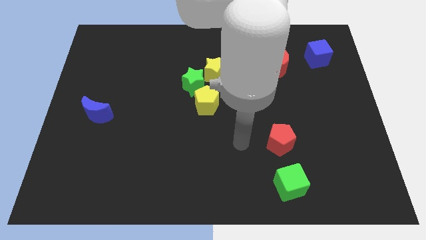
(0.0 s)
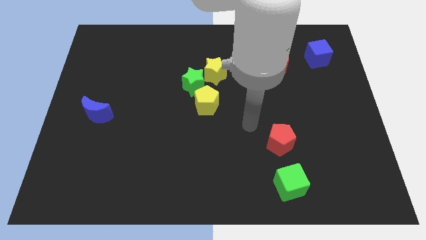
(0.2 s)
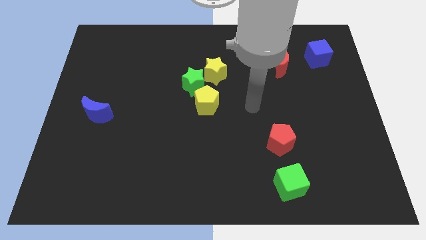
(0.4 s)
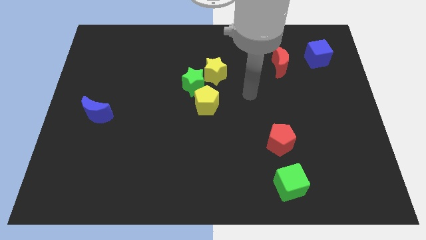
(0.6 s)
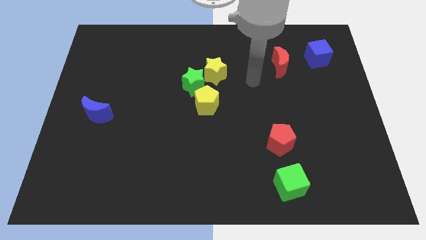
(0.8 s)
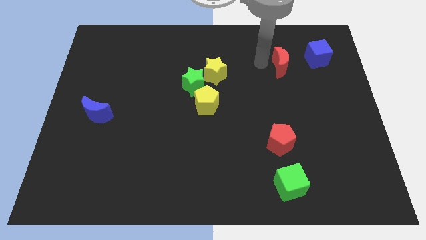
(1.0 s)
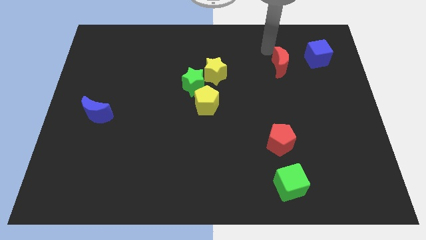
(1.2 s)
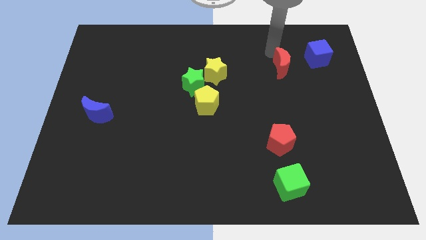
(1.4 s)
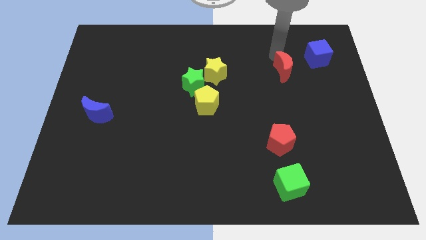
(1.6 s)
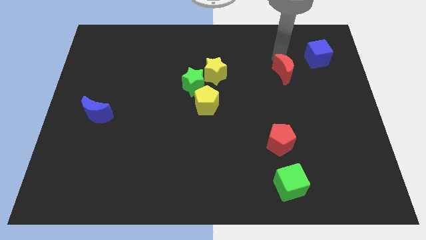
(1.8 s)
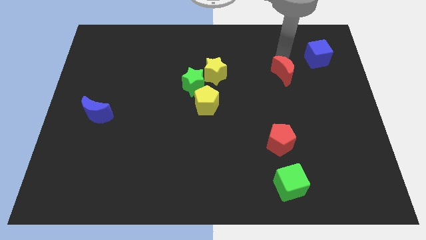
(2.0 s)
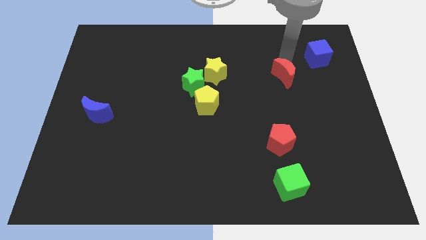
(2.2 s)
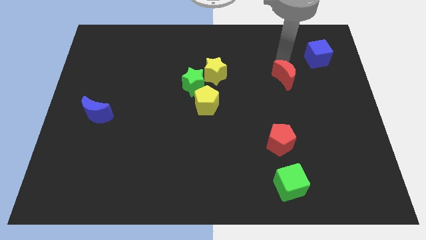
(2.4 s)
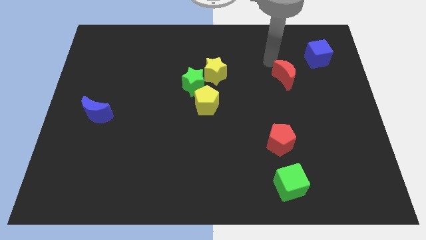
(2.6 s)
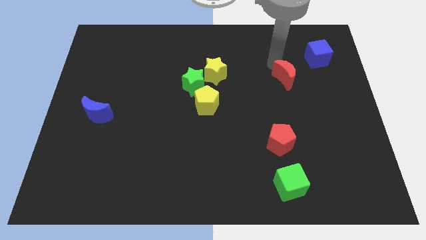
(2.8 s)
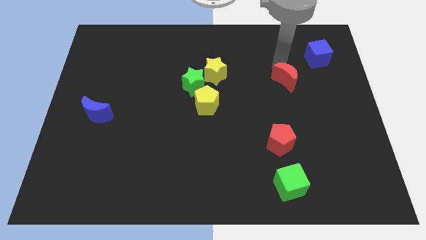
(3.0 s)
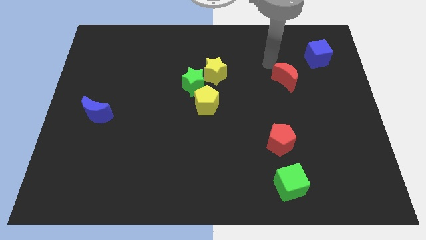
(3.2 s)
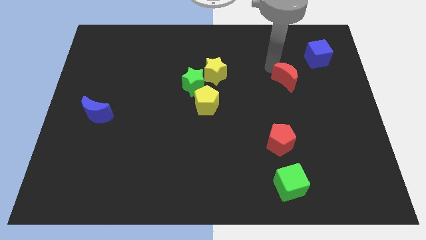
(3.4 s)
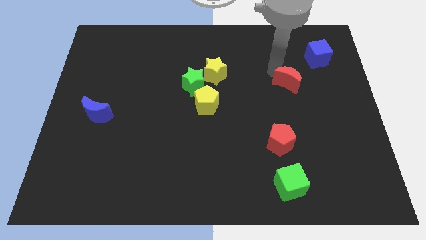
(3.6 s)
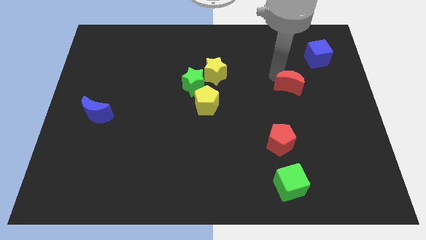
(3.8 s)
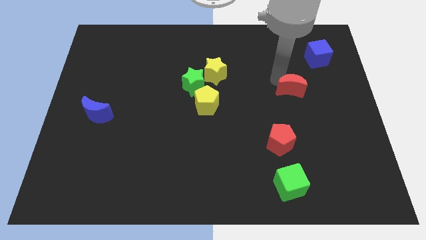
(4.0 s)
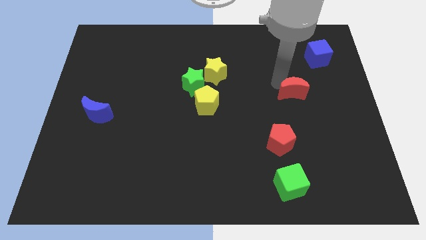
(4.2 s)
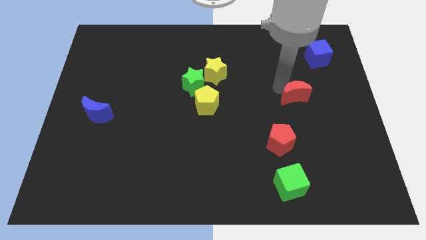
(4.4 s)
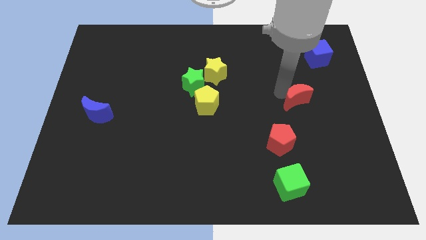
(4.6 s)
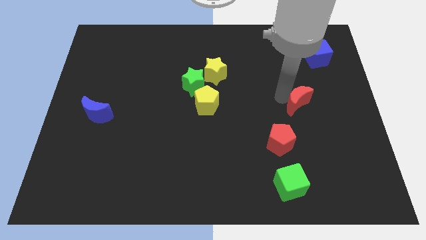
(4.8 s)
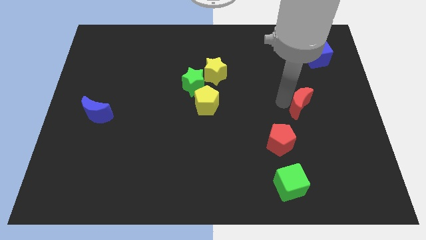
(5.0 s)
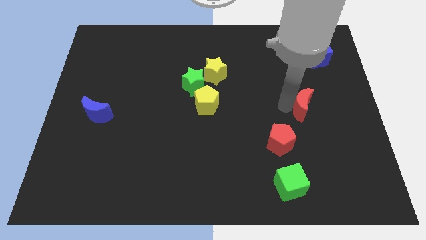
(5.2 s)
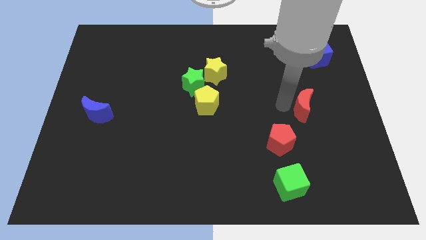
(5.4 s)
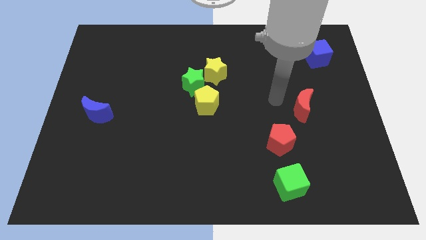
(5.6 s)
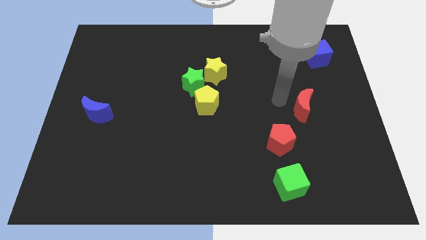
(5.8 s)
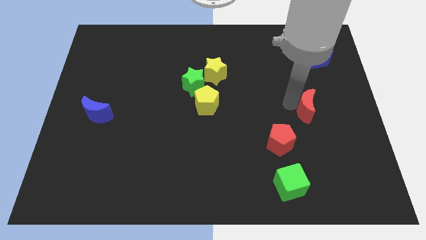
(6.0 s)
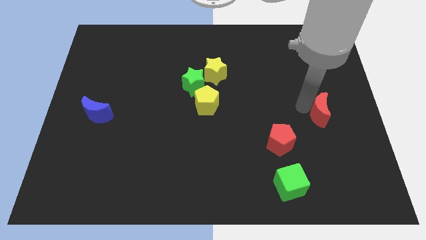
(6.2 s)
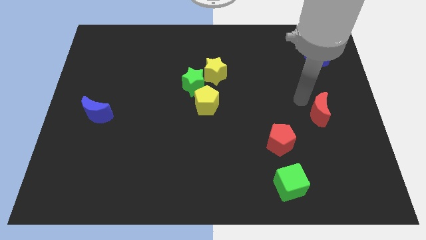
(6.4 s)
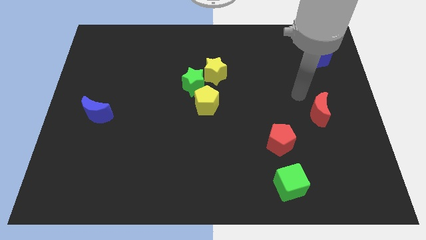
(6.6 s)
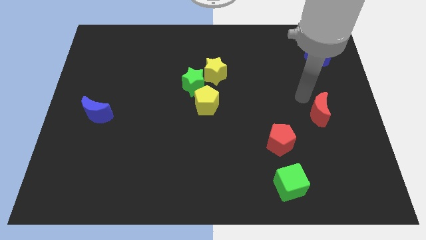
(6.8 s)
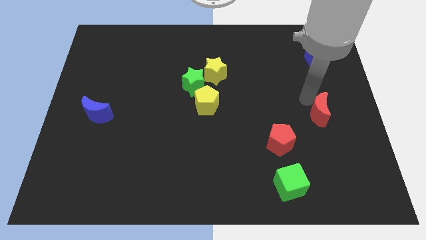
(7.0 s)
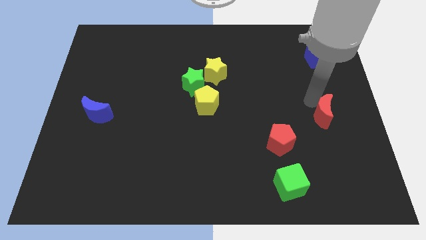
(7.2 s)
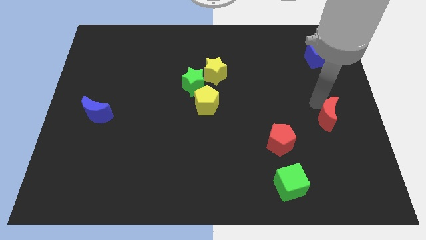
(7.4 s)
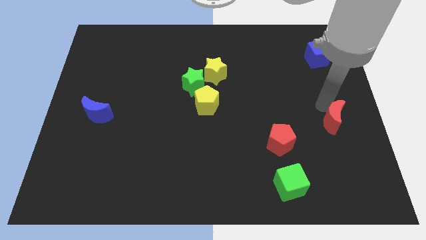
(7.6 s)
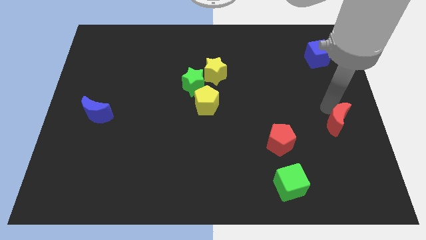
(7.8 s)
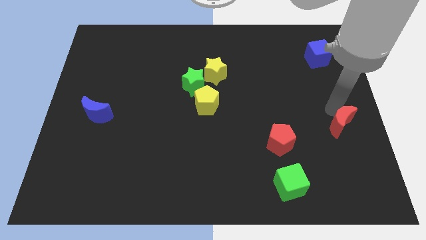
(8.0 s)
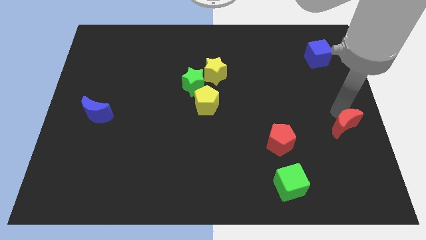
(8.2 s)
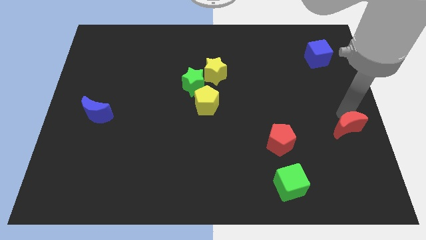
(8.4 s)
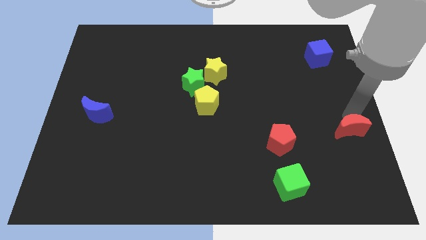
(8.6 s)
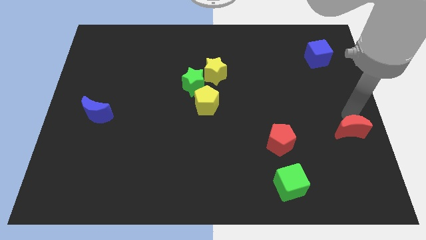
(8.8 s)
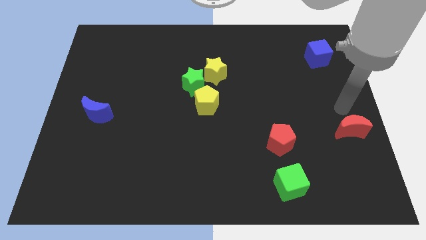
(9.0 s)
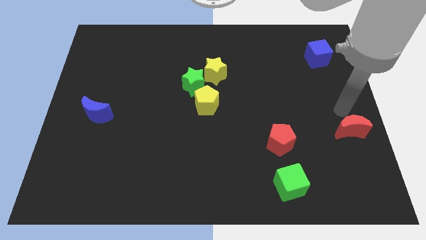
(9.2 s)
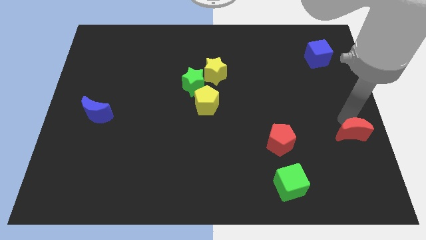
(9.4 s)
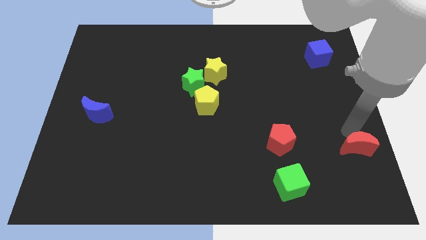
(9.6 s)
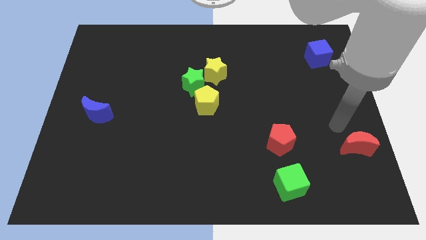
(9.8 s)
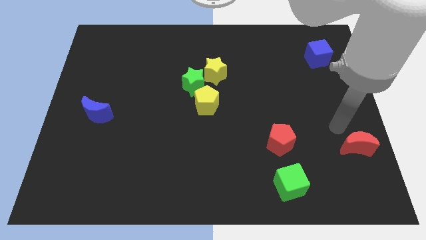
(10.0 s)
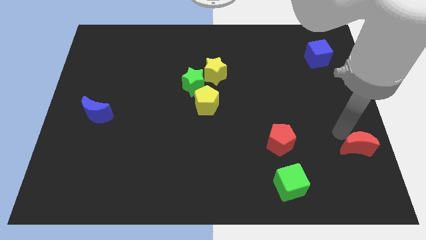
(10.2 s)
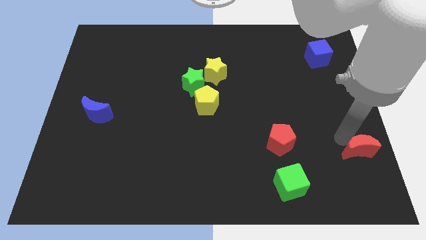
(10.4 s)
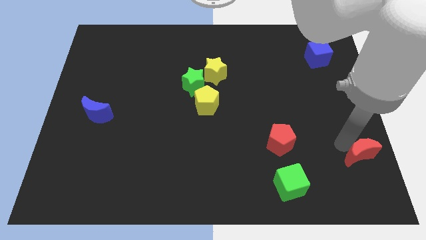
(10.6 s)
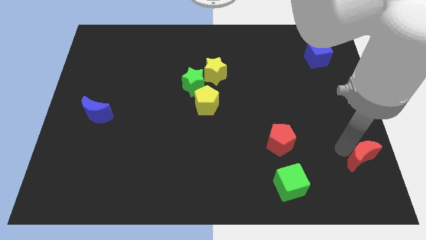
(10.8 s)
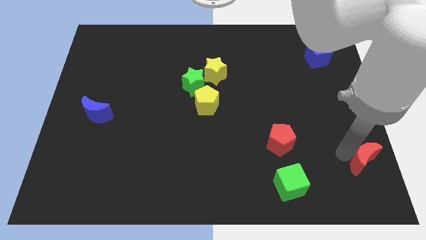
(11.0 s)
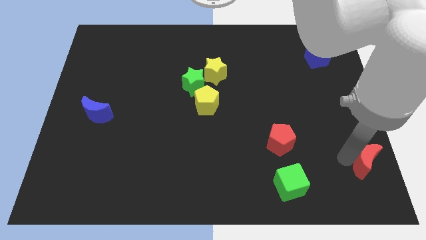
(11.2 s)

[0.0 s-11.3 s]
slide the red moon to the lower right corner

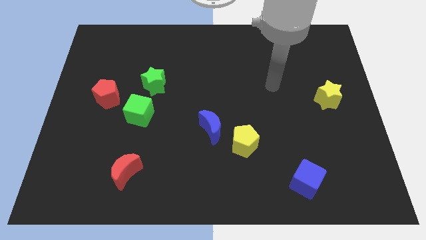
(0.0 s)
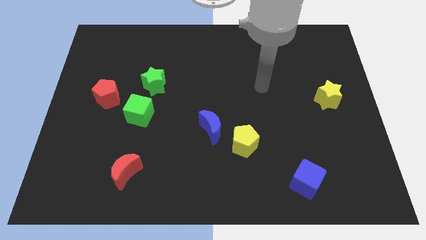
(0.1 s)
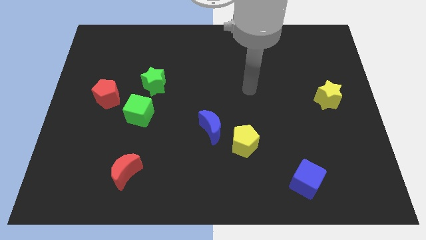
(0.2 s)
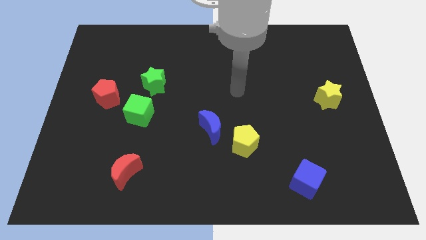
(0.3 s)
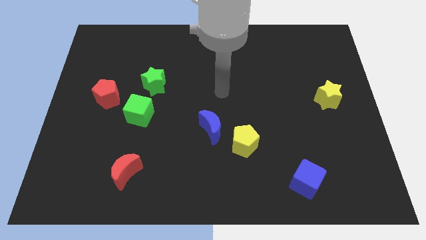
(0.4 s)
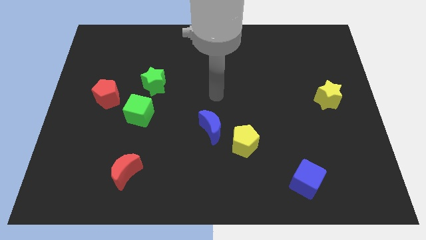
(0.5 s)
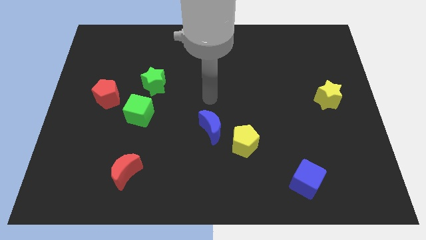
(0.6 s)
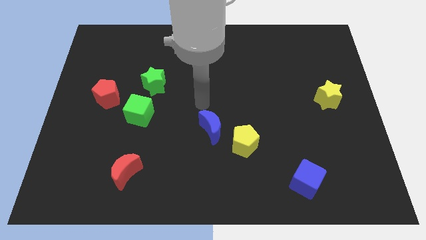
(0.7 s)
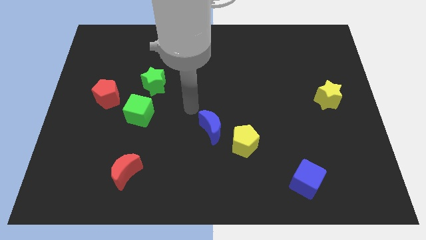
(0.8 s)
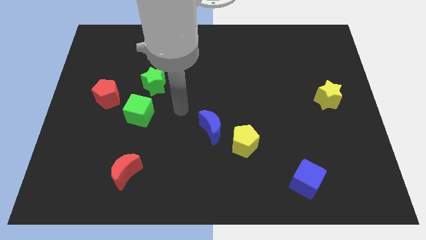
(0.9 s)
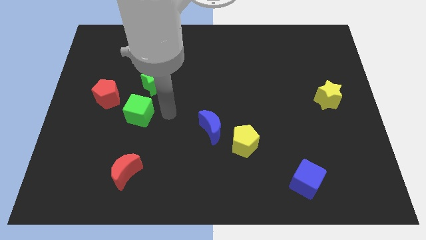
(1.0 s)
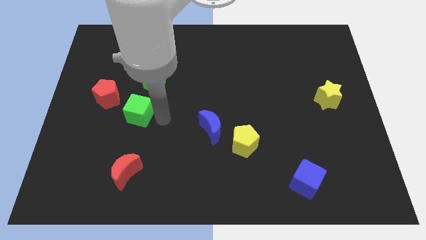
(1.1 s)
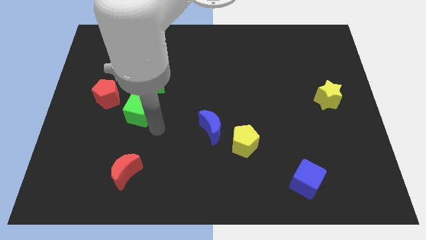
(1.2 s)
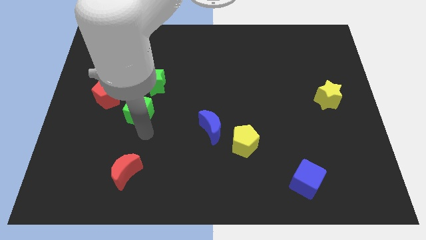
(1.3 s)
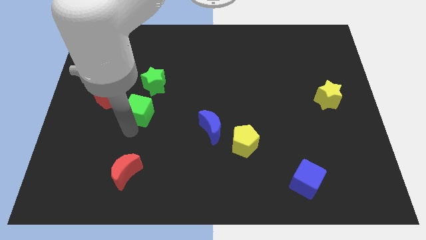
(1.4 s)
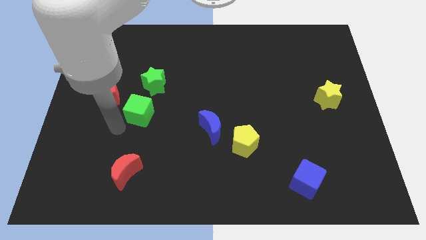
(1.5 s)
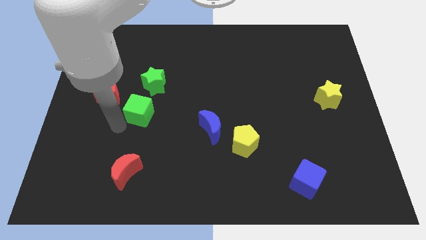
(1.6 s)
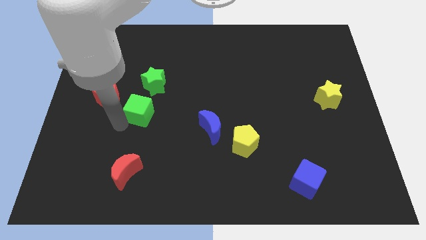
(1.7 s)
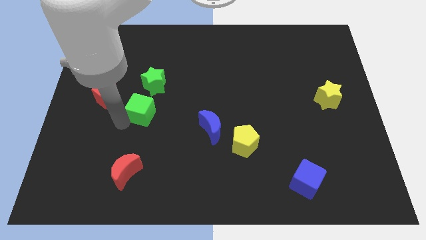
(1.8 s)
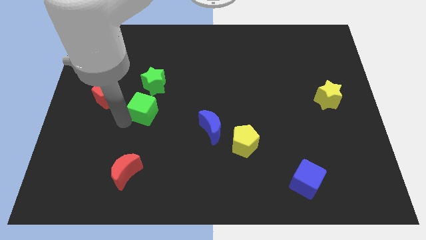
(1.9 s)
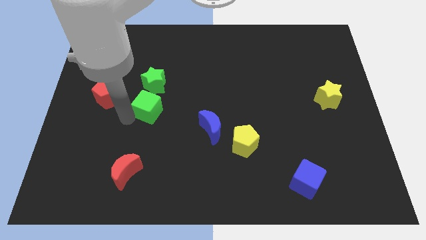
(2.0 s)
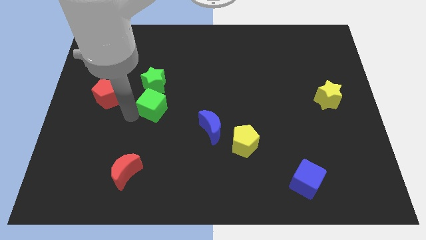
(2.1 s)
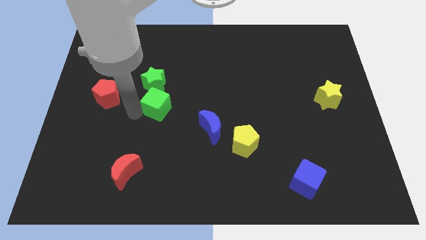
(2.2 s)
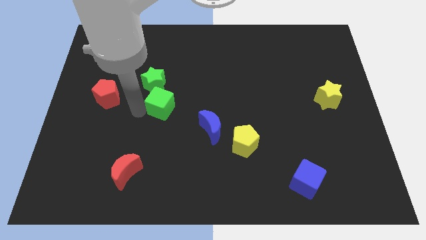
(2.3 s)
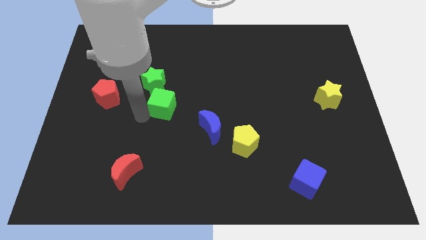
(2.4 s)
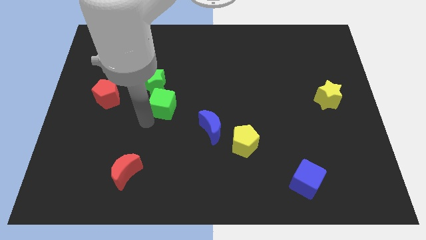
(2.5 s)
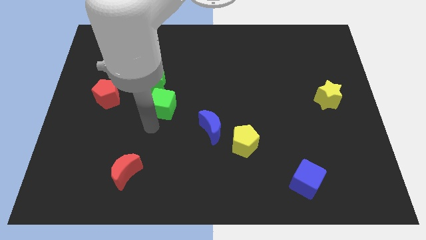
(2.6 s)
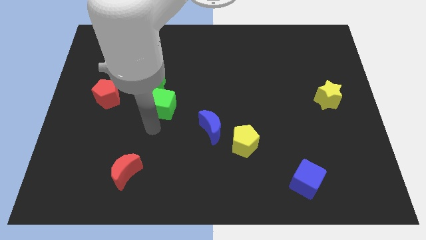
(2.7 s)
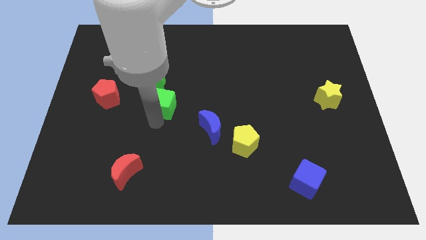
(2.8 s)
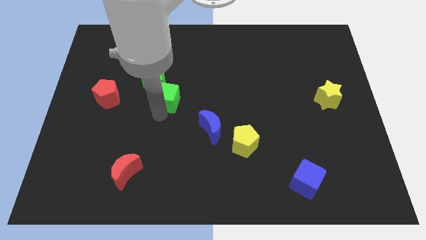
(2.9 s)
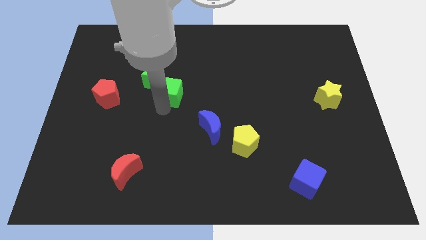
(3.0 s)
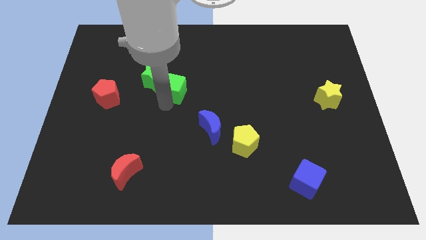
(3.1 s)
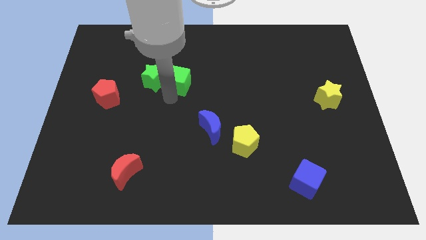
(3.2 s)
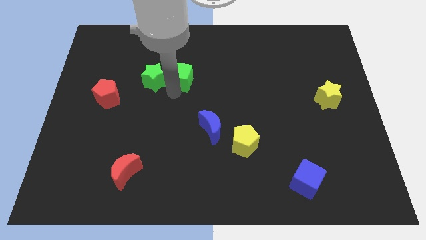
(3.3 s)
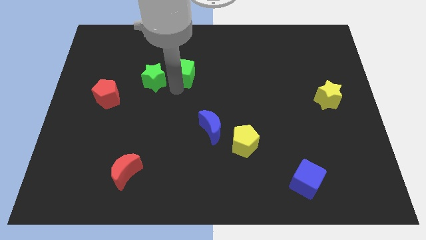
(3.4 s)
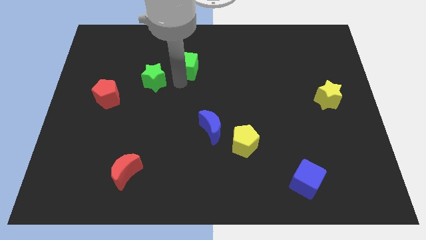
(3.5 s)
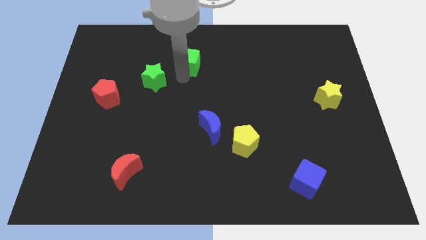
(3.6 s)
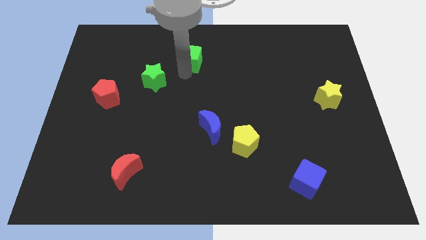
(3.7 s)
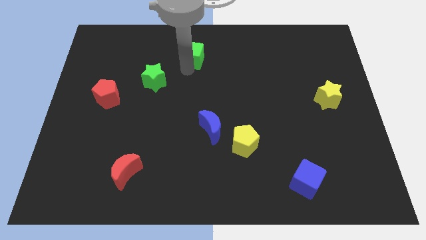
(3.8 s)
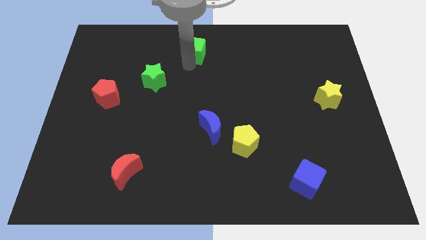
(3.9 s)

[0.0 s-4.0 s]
move the green cube to the top side
